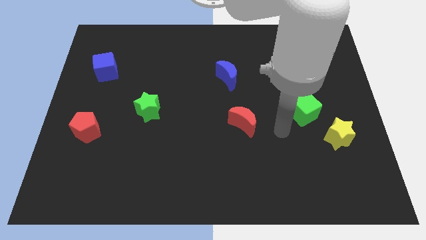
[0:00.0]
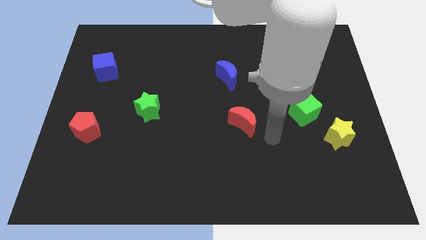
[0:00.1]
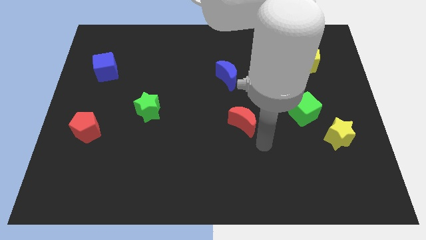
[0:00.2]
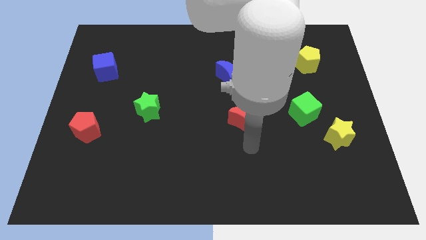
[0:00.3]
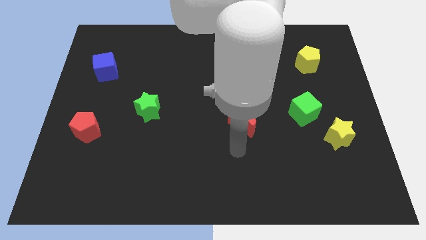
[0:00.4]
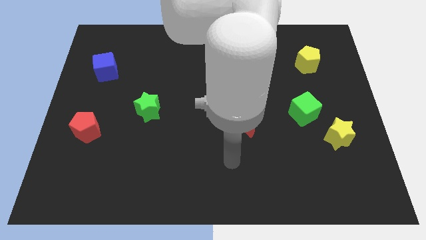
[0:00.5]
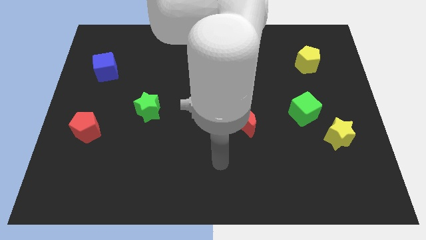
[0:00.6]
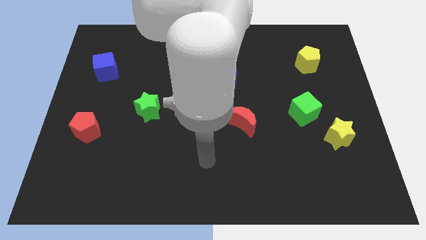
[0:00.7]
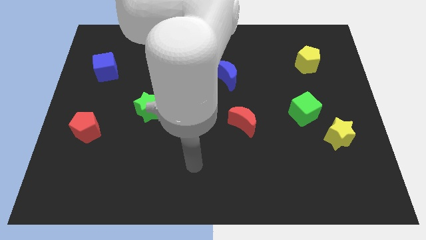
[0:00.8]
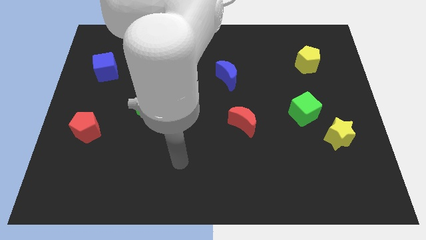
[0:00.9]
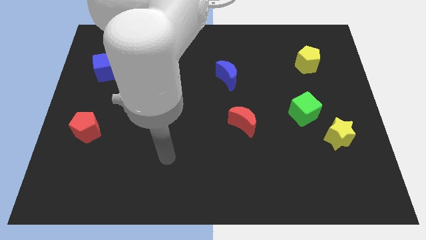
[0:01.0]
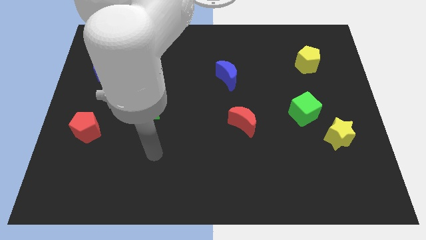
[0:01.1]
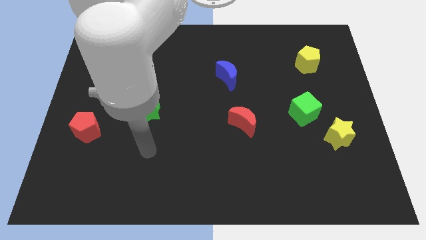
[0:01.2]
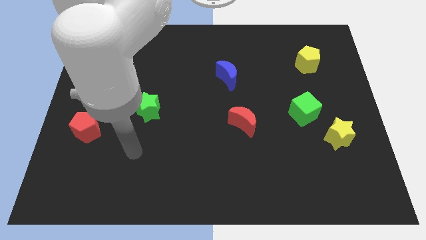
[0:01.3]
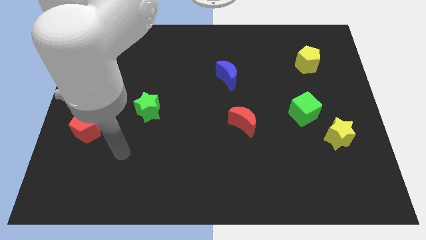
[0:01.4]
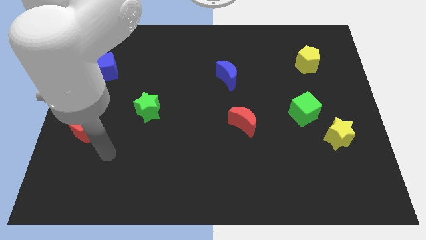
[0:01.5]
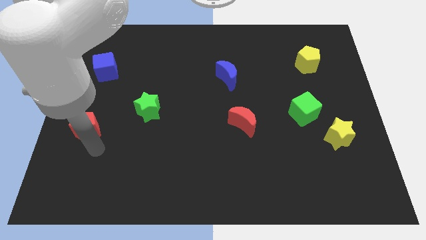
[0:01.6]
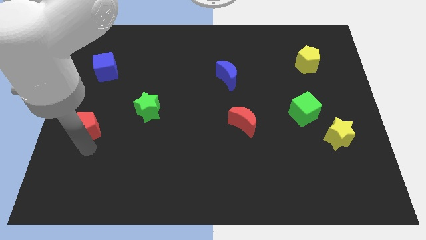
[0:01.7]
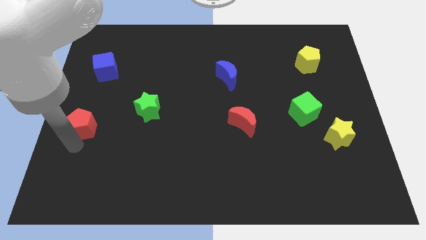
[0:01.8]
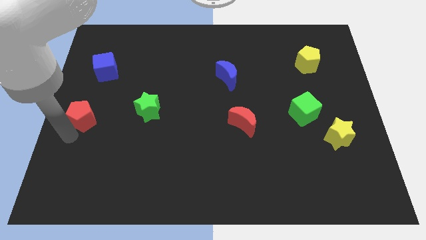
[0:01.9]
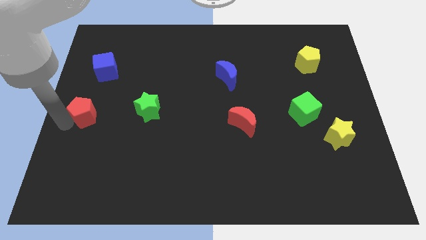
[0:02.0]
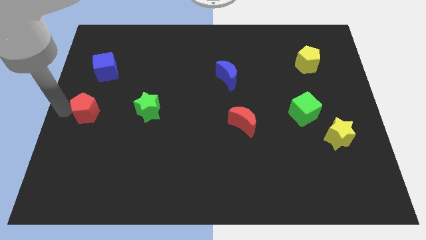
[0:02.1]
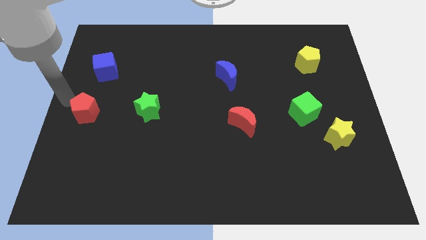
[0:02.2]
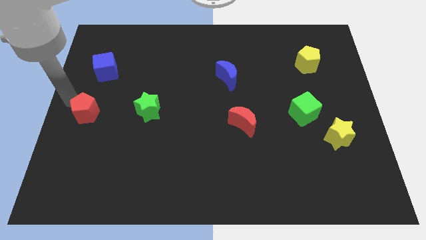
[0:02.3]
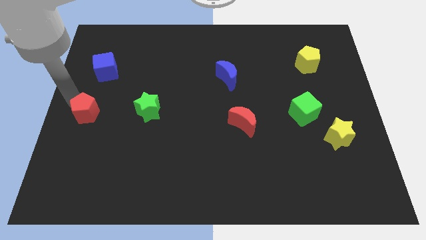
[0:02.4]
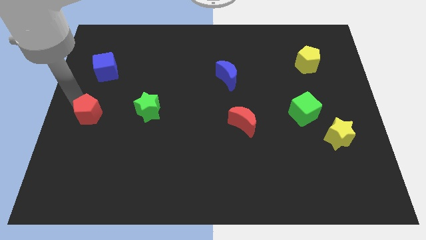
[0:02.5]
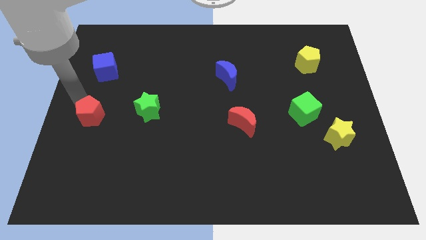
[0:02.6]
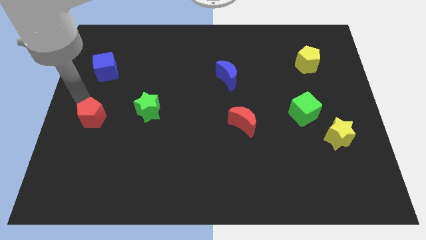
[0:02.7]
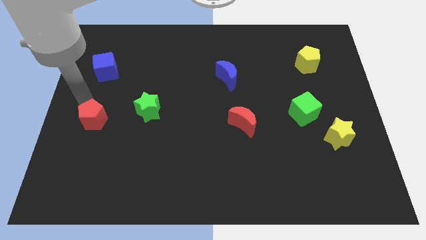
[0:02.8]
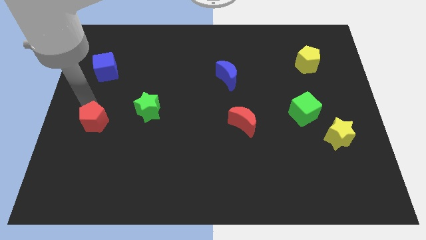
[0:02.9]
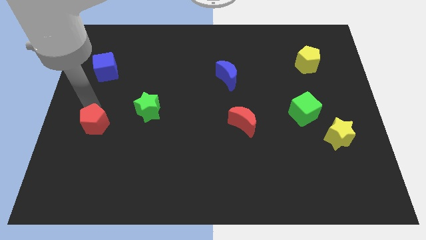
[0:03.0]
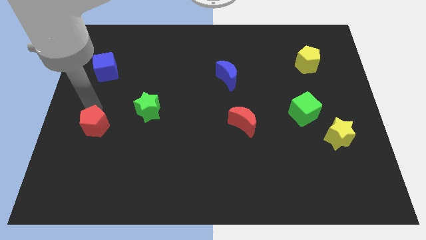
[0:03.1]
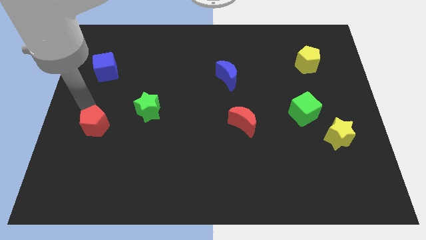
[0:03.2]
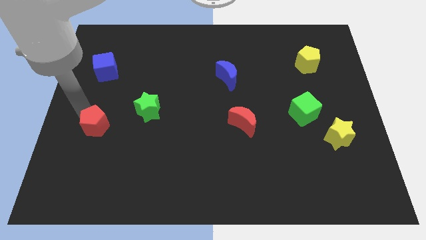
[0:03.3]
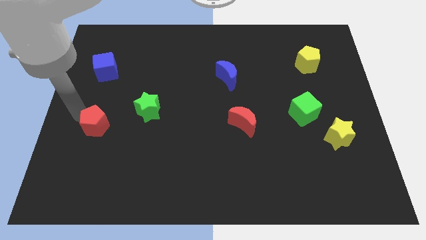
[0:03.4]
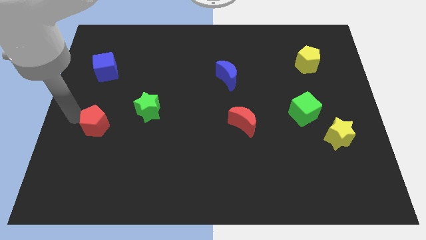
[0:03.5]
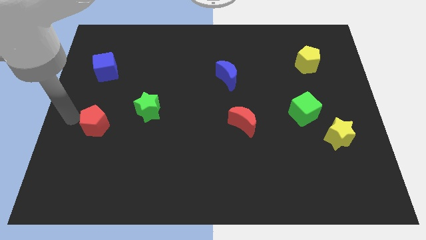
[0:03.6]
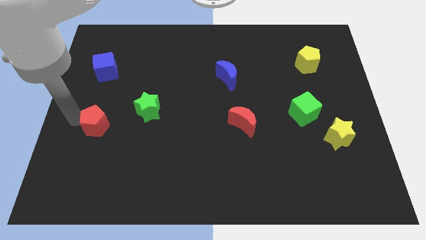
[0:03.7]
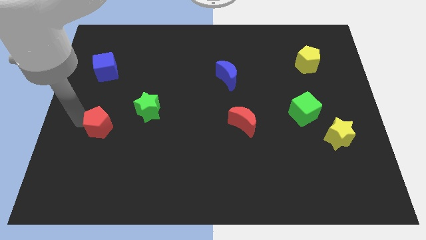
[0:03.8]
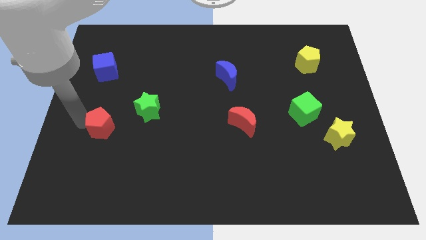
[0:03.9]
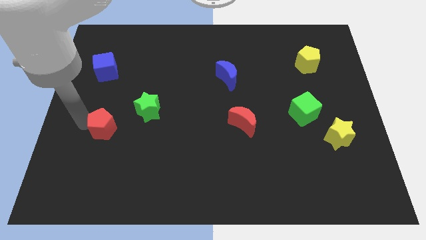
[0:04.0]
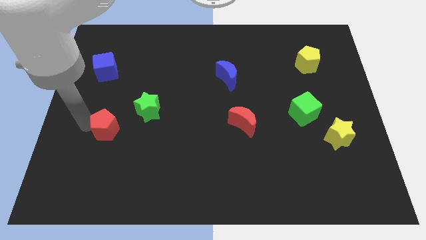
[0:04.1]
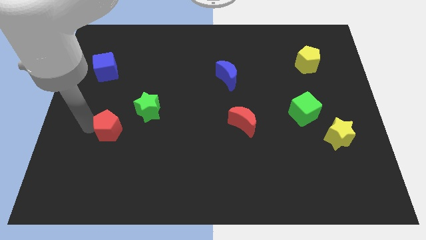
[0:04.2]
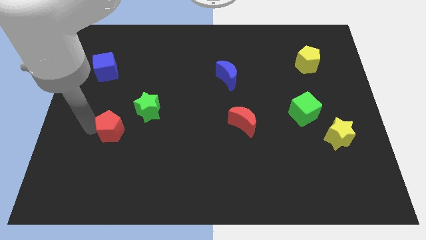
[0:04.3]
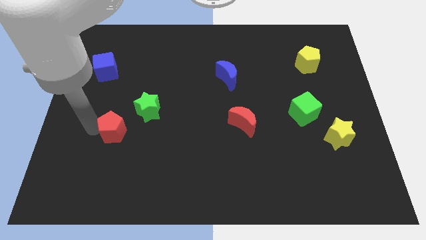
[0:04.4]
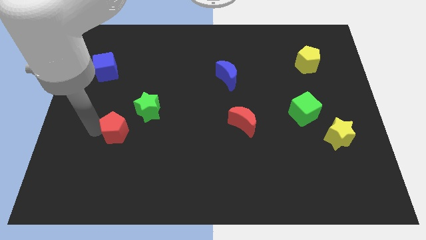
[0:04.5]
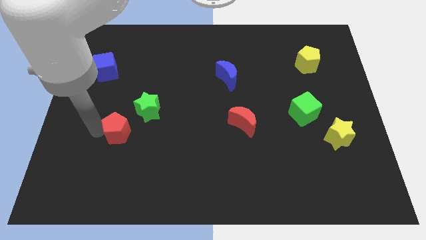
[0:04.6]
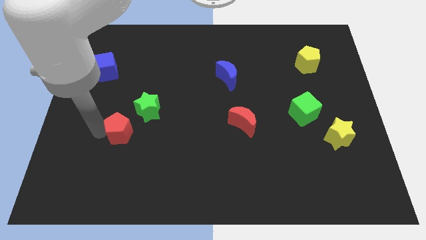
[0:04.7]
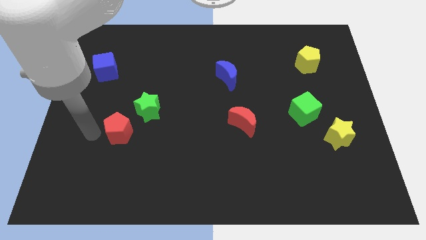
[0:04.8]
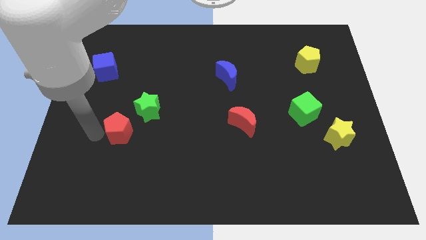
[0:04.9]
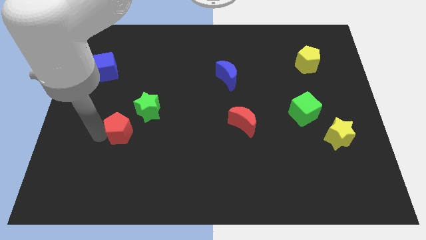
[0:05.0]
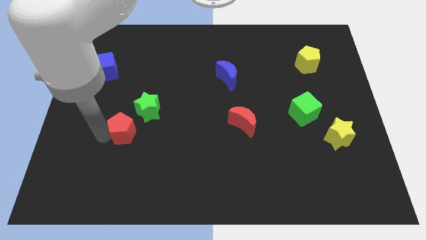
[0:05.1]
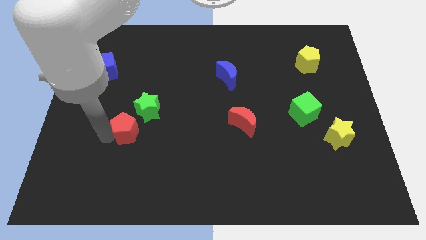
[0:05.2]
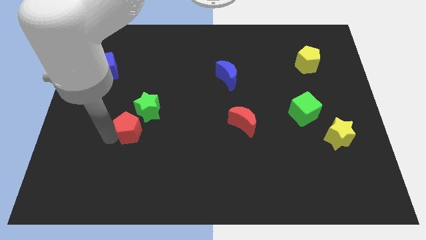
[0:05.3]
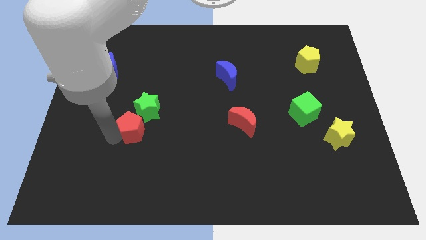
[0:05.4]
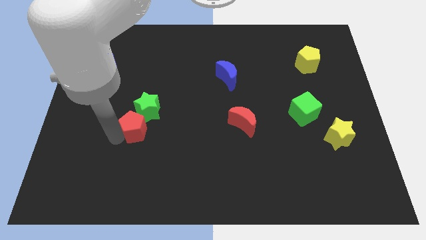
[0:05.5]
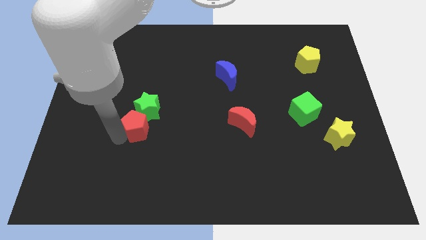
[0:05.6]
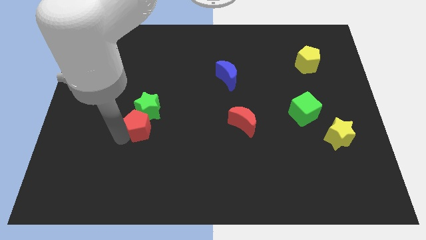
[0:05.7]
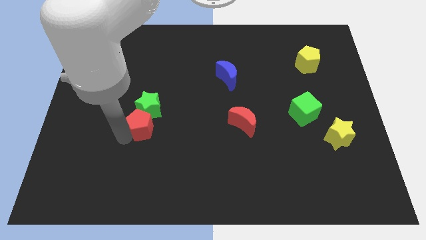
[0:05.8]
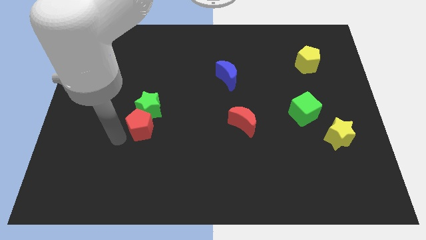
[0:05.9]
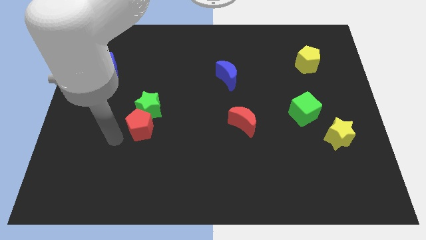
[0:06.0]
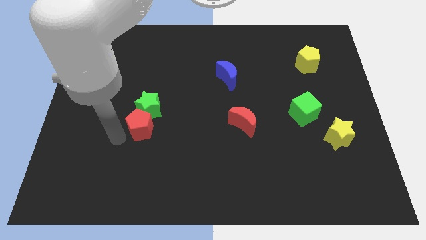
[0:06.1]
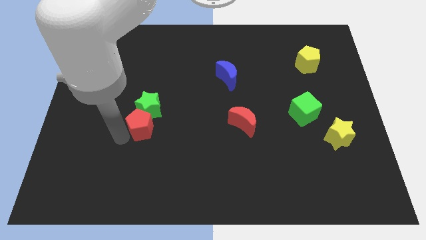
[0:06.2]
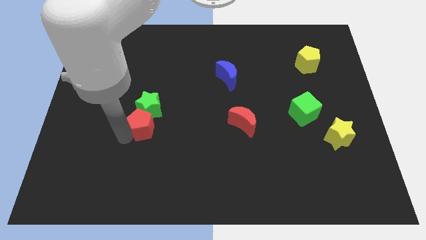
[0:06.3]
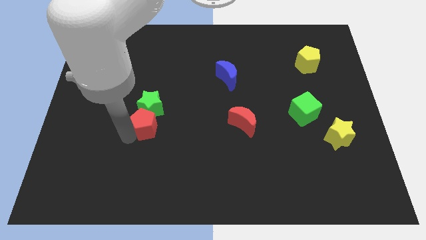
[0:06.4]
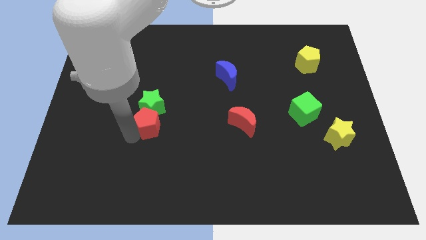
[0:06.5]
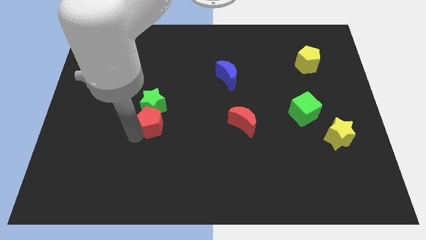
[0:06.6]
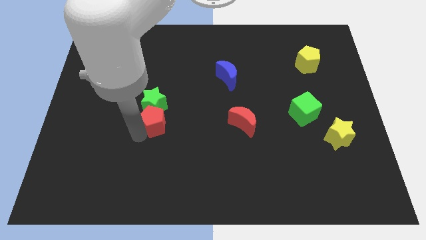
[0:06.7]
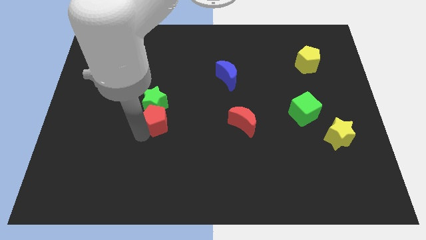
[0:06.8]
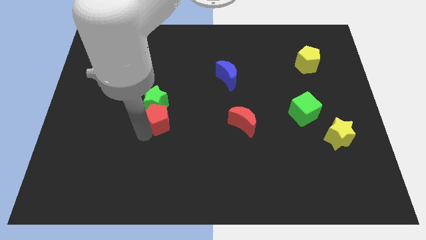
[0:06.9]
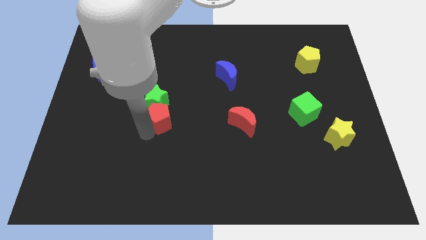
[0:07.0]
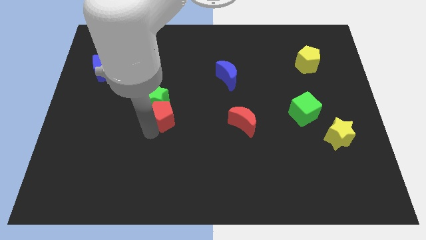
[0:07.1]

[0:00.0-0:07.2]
move the red pentagon to the middle of the board
